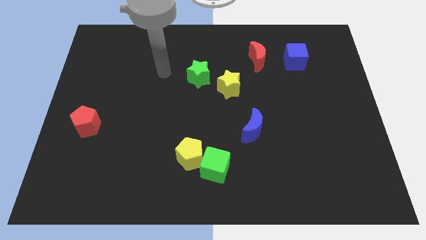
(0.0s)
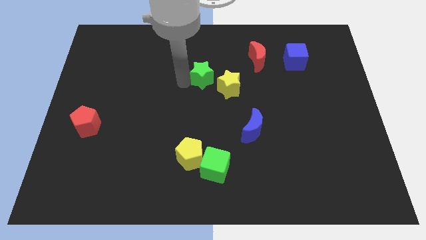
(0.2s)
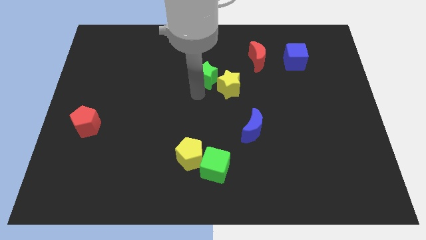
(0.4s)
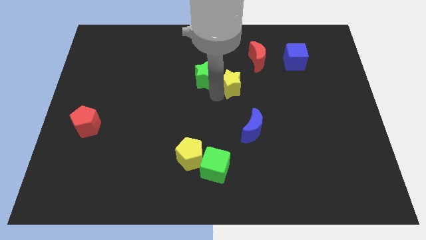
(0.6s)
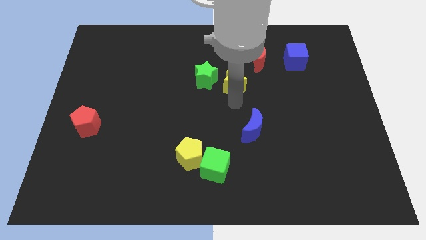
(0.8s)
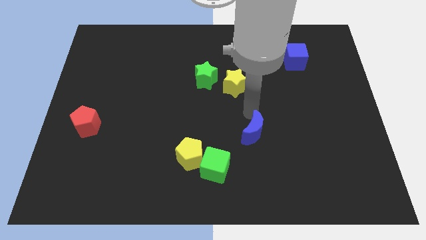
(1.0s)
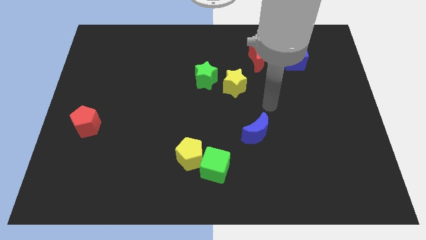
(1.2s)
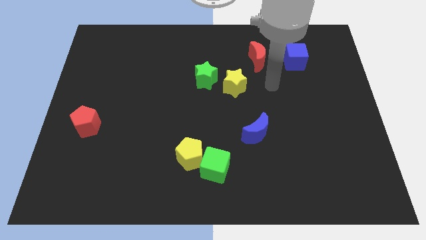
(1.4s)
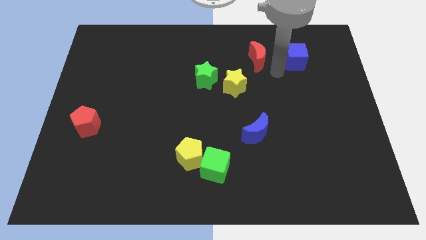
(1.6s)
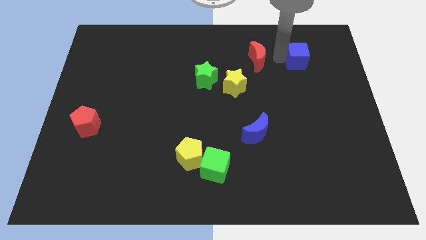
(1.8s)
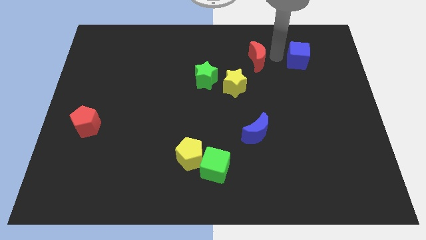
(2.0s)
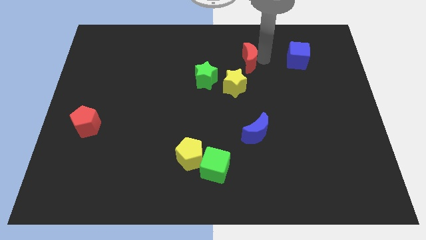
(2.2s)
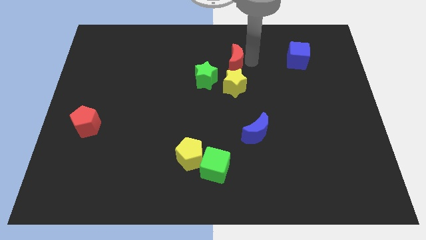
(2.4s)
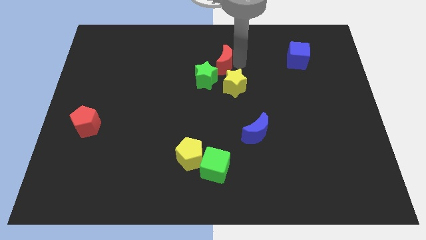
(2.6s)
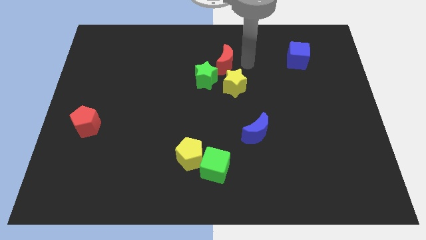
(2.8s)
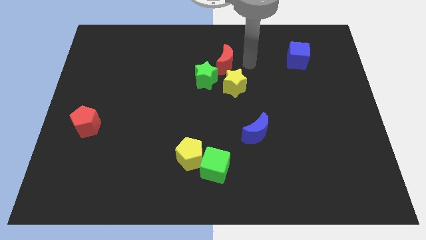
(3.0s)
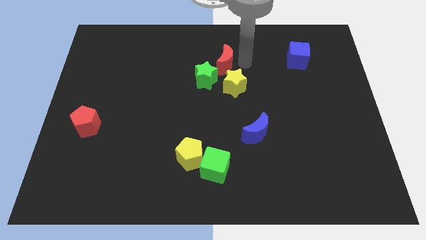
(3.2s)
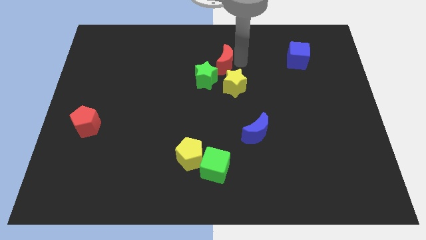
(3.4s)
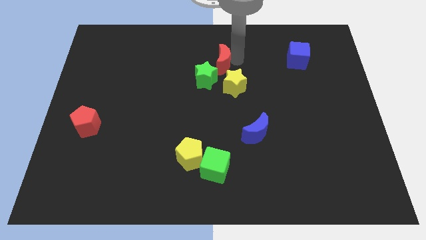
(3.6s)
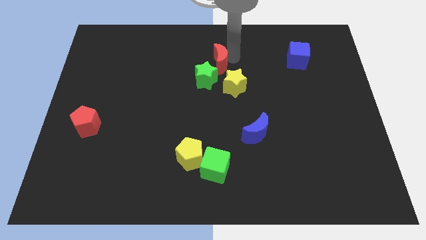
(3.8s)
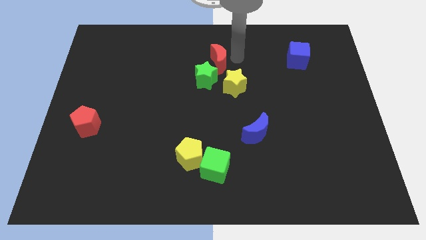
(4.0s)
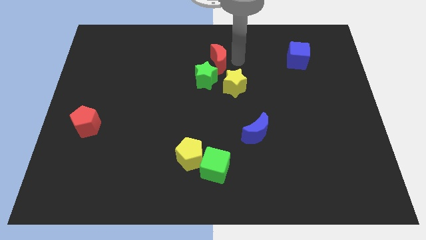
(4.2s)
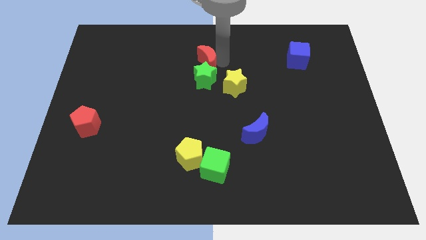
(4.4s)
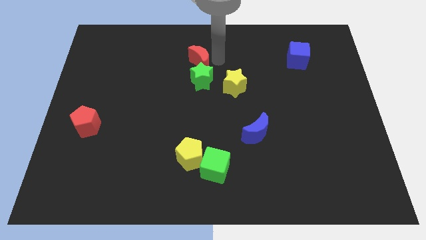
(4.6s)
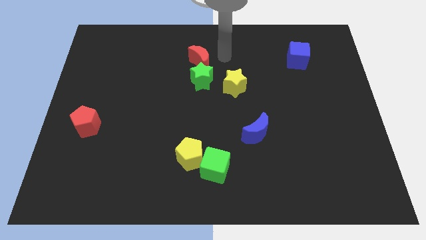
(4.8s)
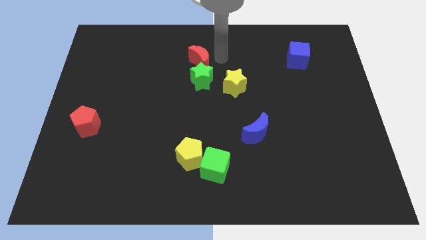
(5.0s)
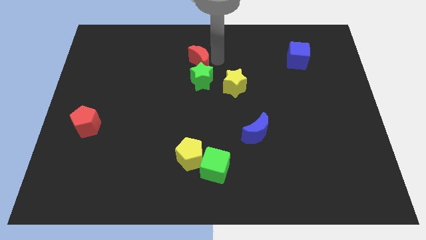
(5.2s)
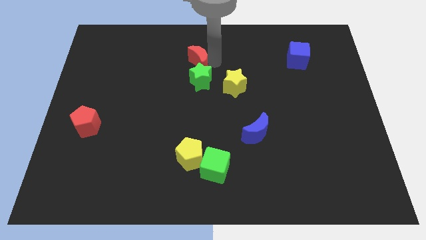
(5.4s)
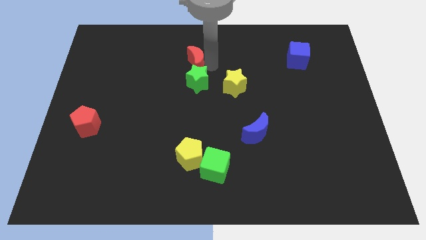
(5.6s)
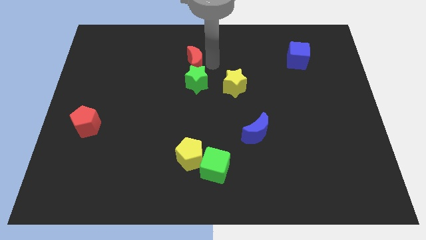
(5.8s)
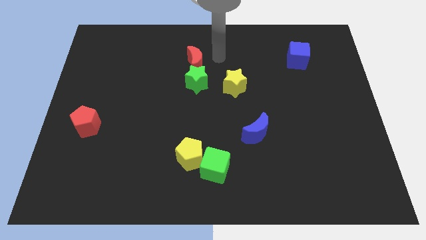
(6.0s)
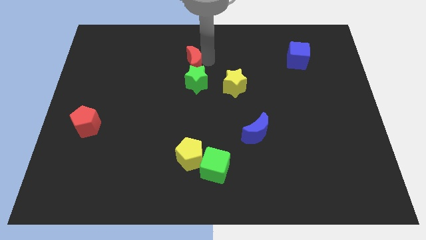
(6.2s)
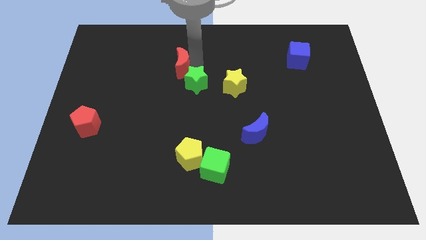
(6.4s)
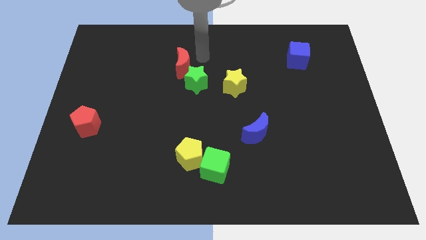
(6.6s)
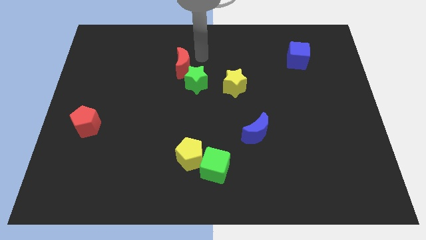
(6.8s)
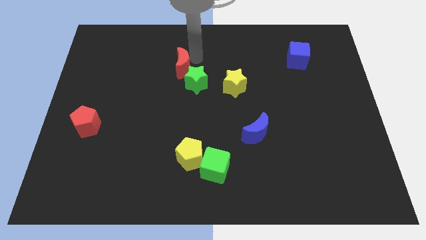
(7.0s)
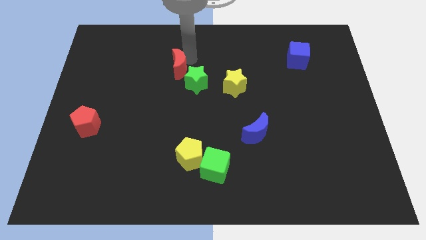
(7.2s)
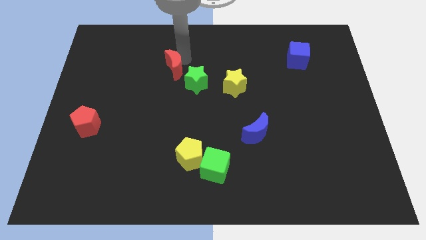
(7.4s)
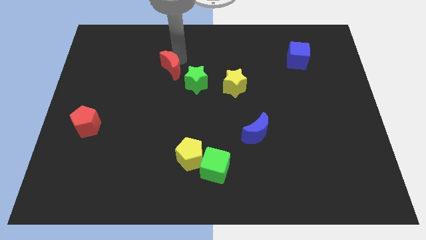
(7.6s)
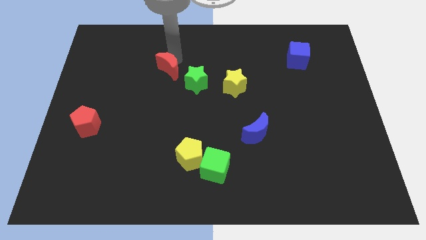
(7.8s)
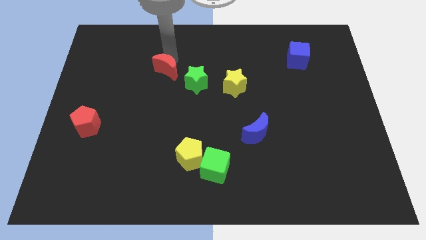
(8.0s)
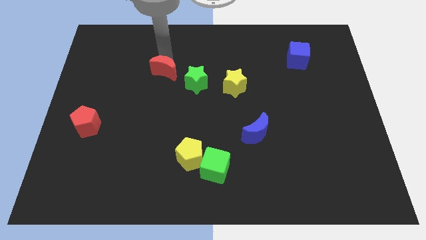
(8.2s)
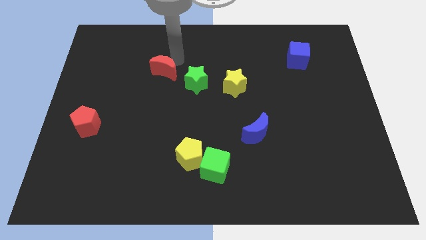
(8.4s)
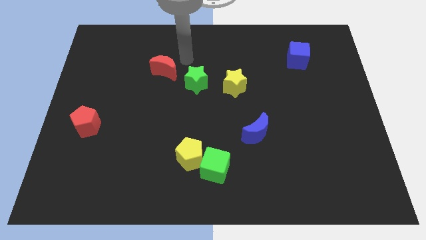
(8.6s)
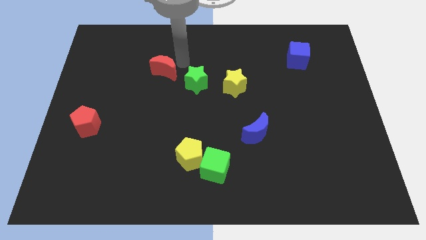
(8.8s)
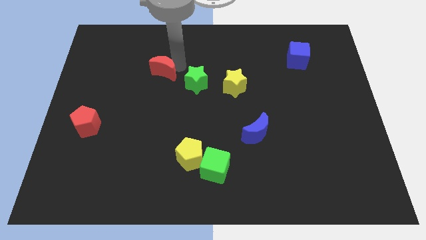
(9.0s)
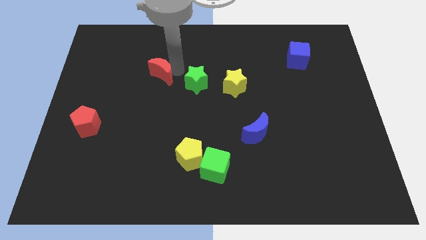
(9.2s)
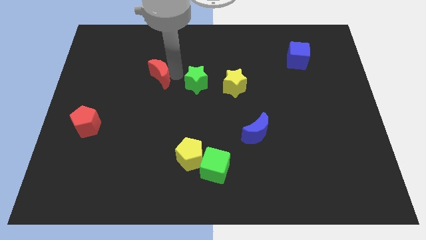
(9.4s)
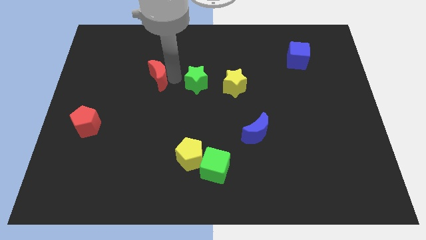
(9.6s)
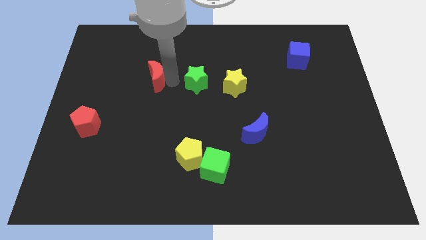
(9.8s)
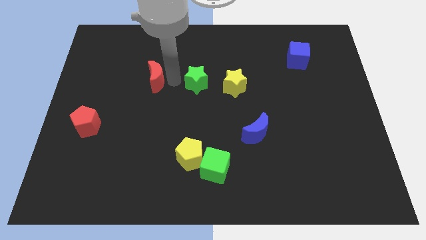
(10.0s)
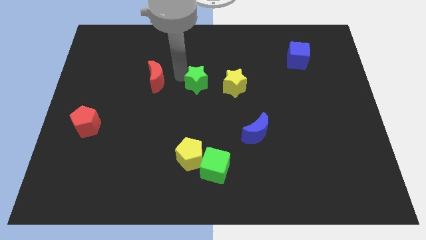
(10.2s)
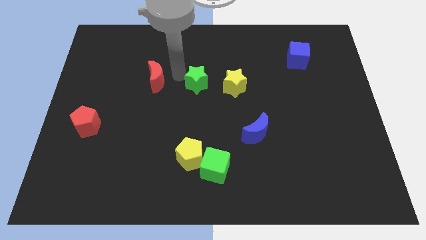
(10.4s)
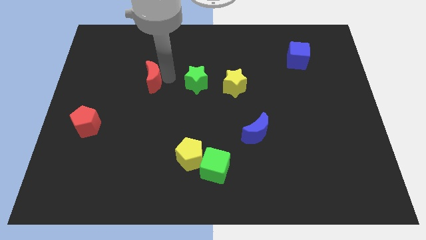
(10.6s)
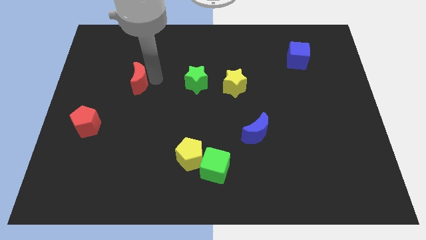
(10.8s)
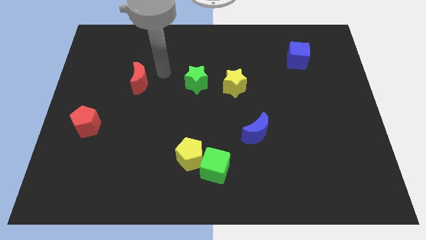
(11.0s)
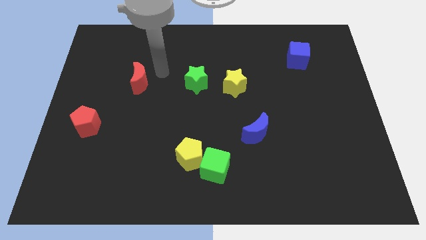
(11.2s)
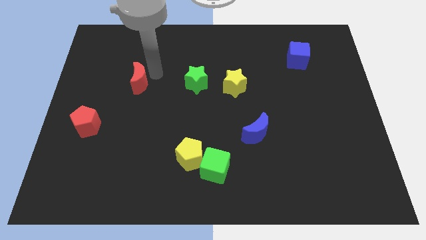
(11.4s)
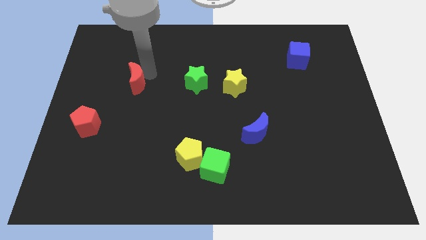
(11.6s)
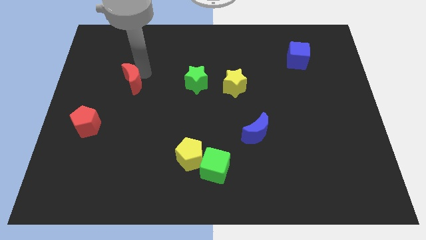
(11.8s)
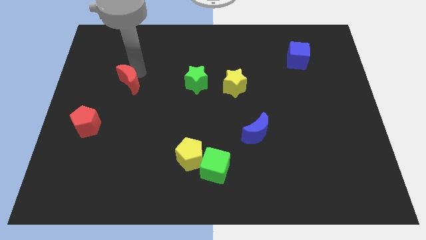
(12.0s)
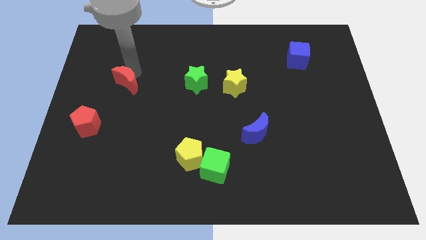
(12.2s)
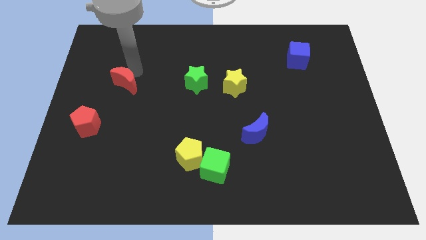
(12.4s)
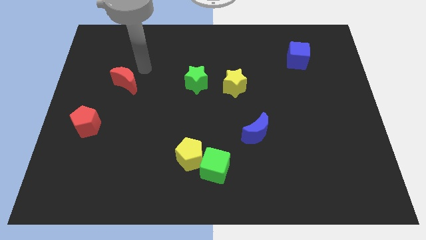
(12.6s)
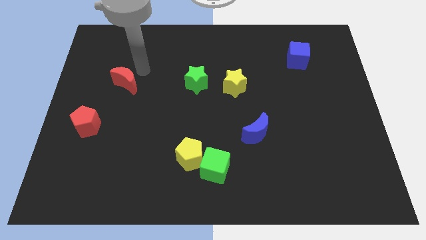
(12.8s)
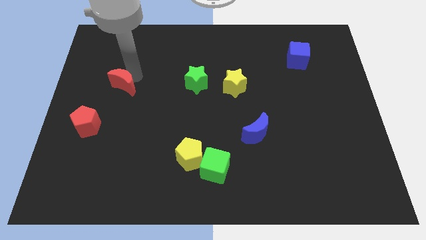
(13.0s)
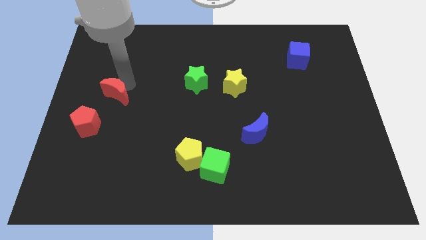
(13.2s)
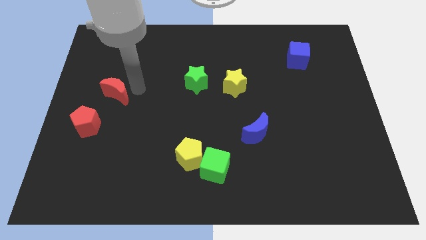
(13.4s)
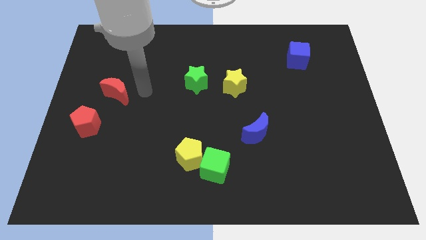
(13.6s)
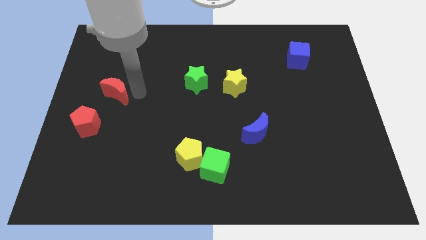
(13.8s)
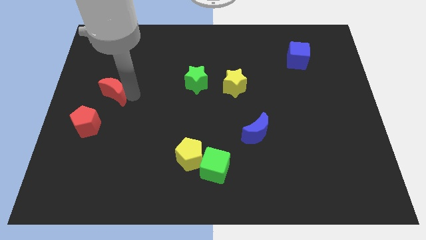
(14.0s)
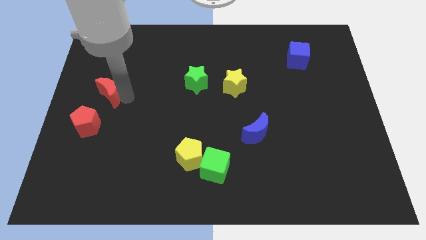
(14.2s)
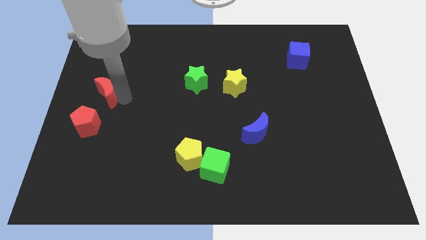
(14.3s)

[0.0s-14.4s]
put the red moon to the center left

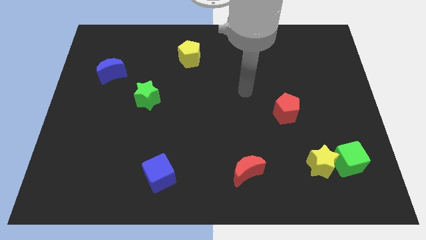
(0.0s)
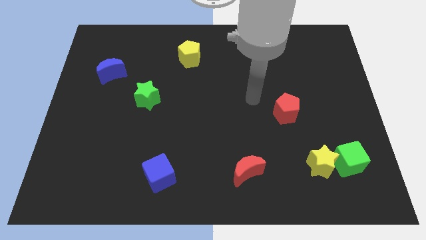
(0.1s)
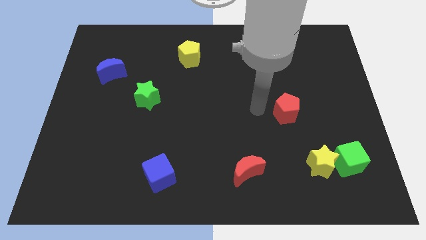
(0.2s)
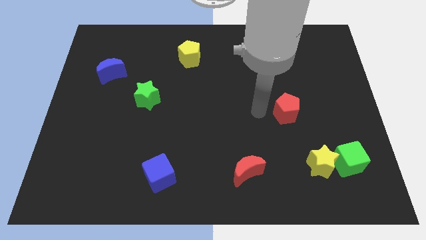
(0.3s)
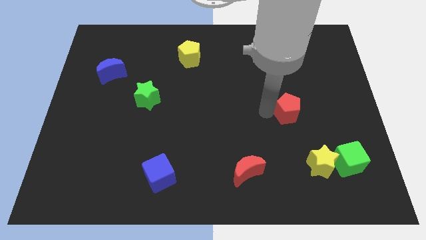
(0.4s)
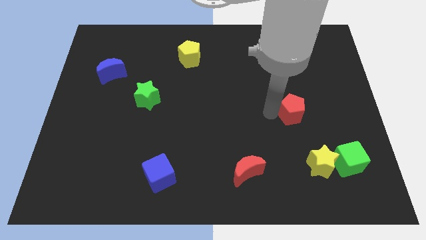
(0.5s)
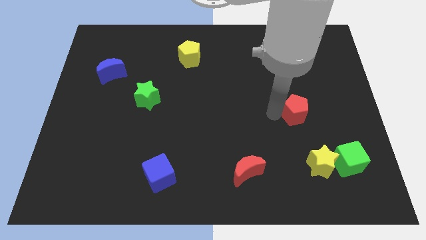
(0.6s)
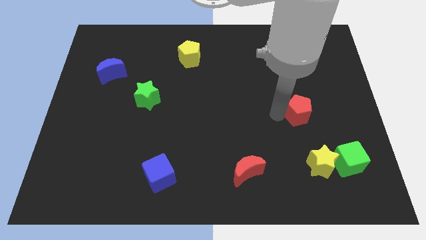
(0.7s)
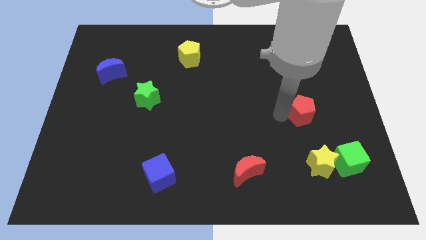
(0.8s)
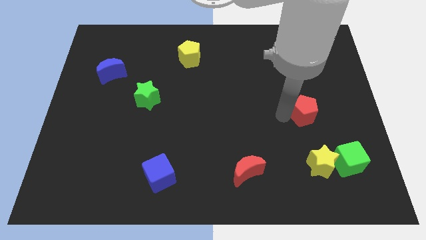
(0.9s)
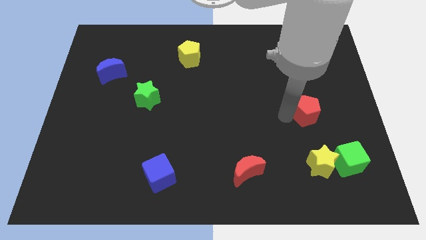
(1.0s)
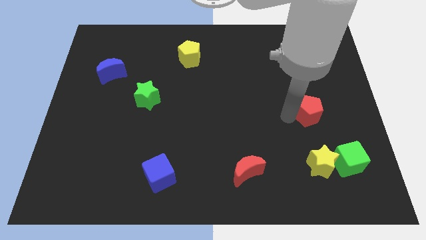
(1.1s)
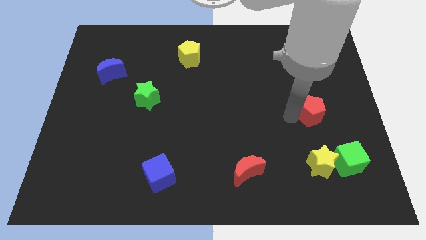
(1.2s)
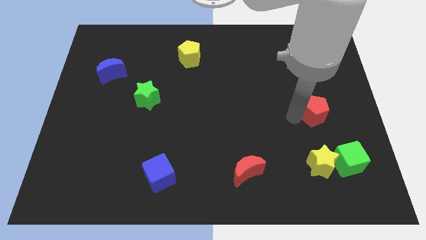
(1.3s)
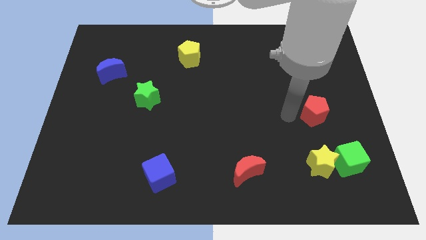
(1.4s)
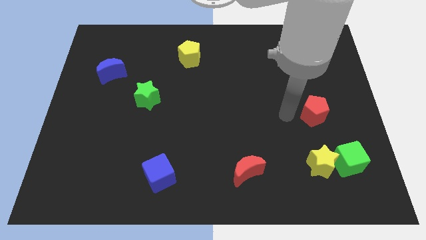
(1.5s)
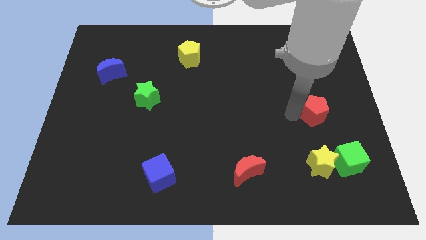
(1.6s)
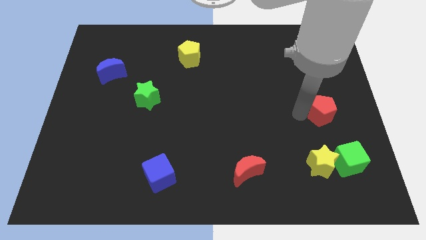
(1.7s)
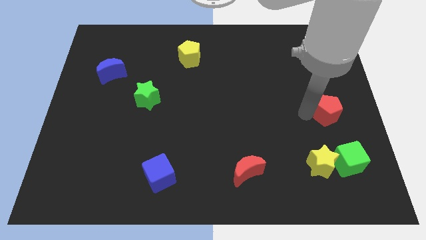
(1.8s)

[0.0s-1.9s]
push the red pentagon to the center right
